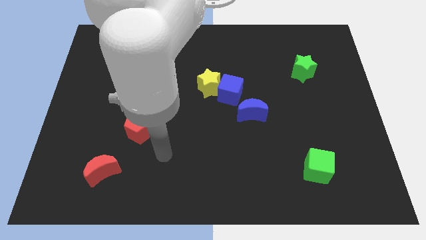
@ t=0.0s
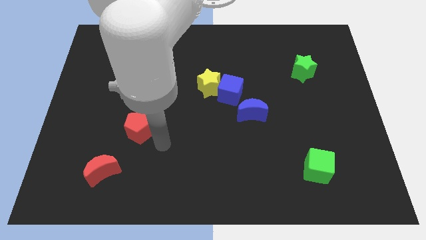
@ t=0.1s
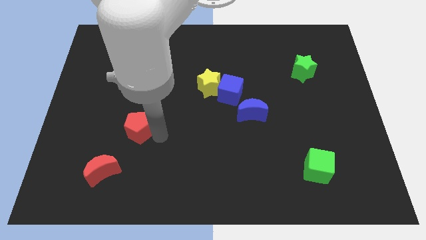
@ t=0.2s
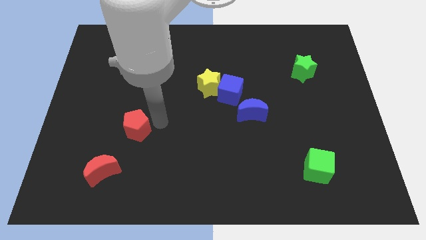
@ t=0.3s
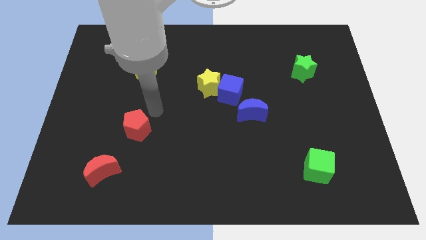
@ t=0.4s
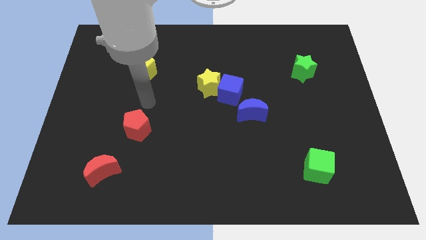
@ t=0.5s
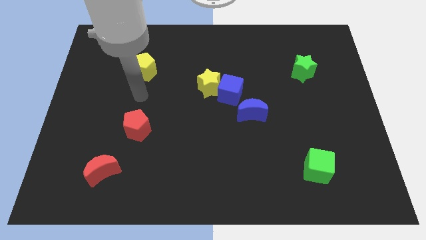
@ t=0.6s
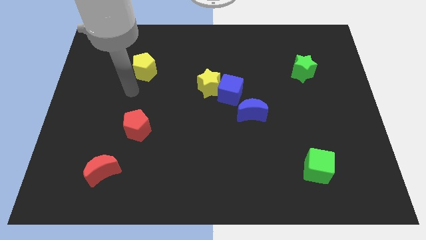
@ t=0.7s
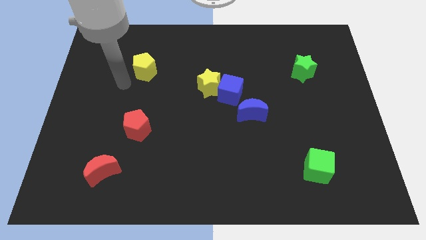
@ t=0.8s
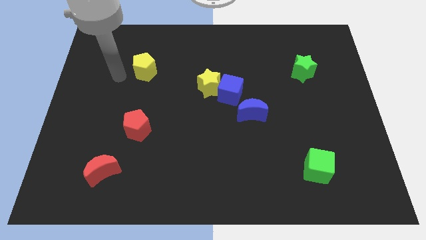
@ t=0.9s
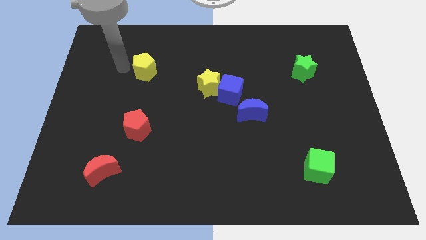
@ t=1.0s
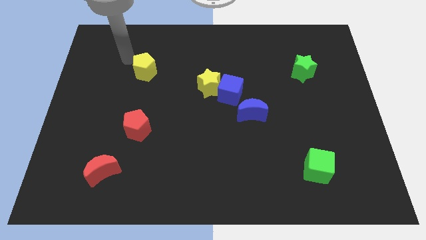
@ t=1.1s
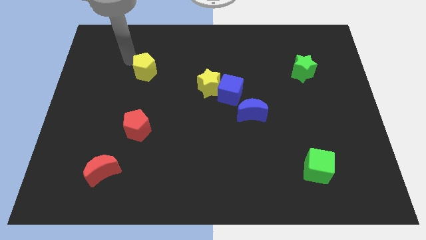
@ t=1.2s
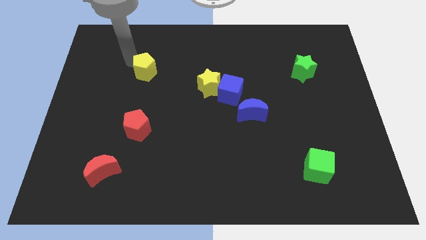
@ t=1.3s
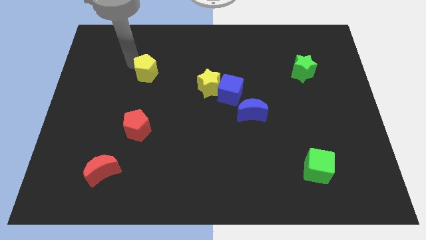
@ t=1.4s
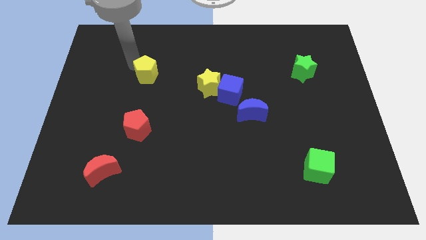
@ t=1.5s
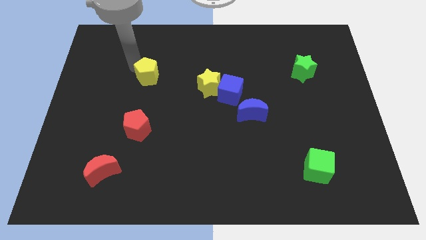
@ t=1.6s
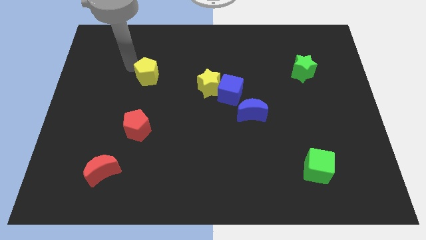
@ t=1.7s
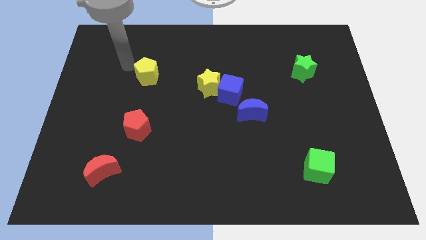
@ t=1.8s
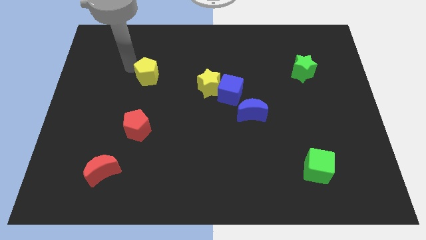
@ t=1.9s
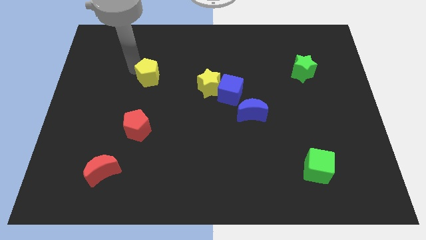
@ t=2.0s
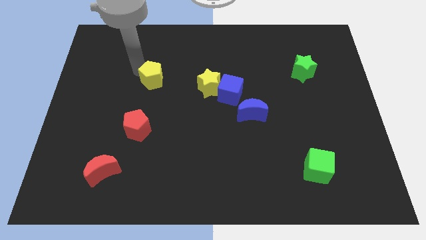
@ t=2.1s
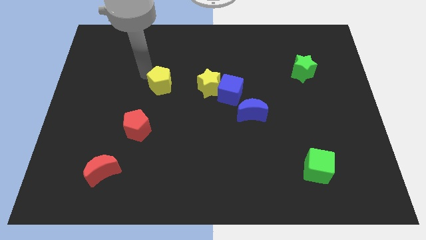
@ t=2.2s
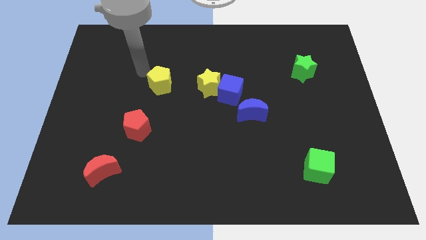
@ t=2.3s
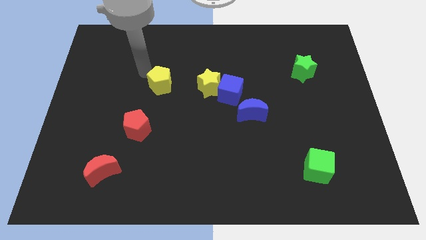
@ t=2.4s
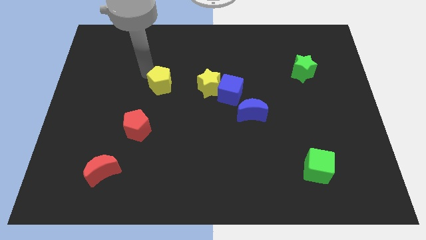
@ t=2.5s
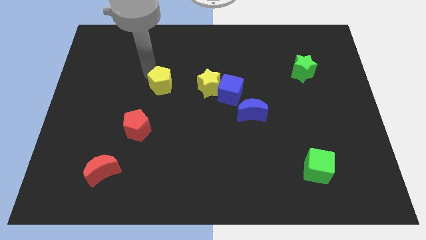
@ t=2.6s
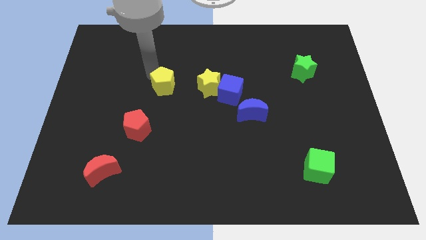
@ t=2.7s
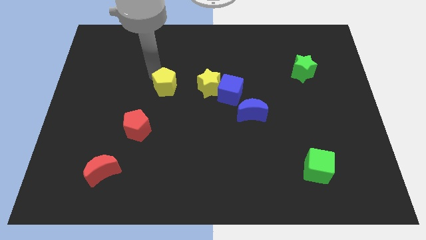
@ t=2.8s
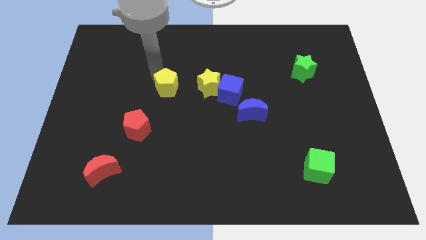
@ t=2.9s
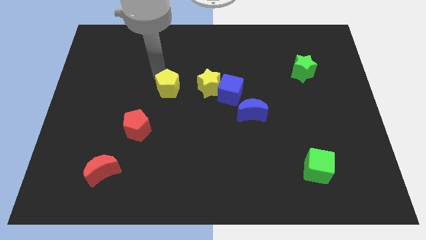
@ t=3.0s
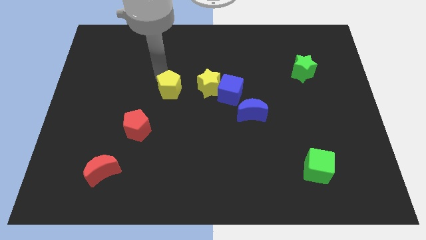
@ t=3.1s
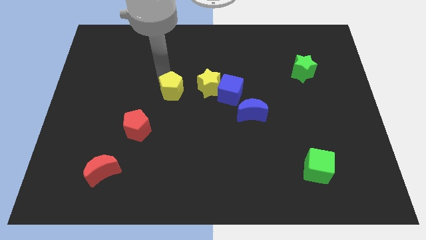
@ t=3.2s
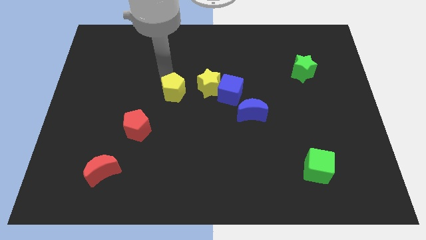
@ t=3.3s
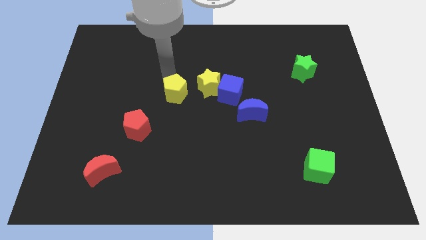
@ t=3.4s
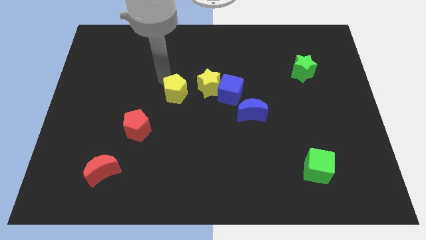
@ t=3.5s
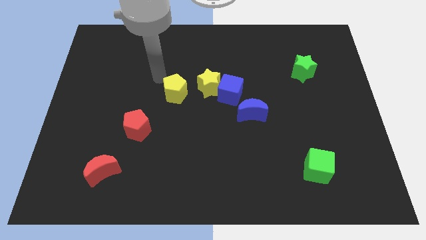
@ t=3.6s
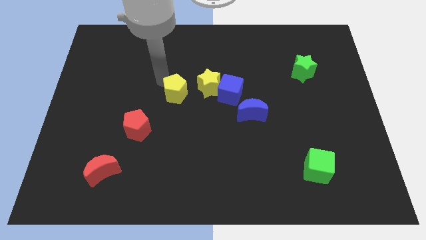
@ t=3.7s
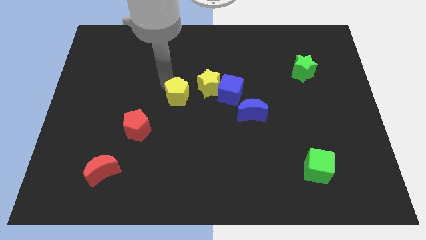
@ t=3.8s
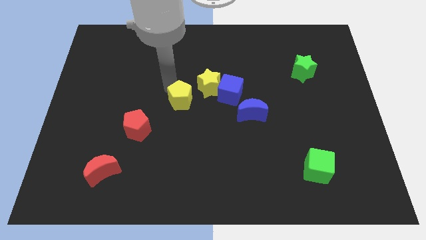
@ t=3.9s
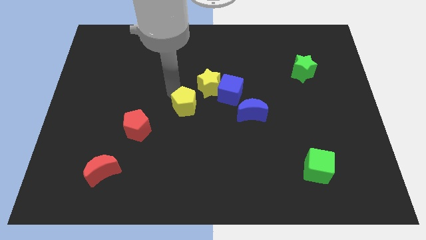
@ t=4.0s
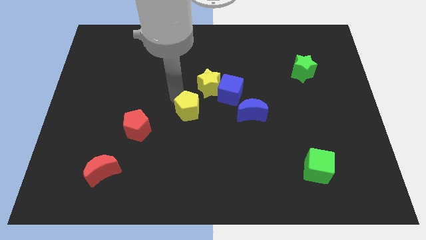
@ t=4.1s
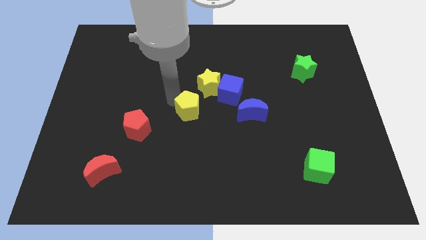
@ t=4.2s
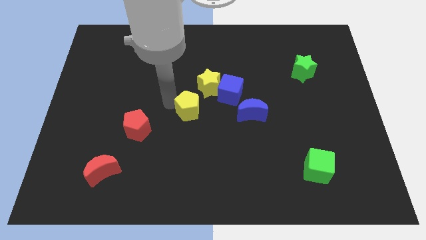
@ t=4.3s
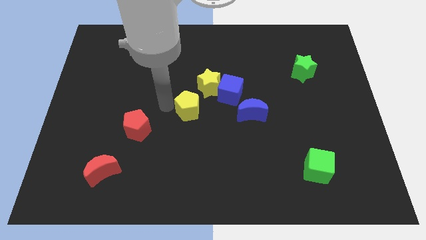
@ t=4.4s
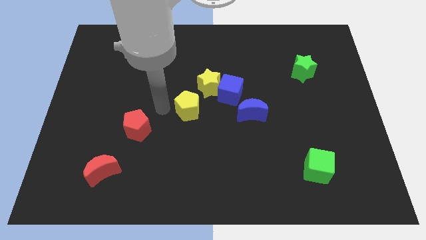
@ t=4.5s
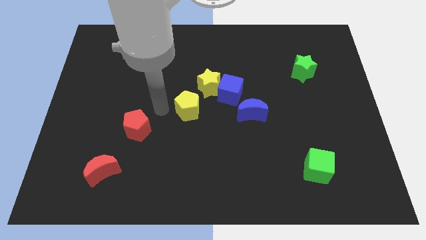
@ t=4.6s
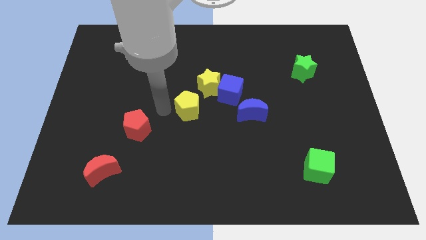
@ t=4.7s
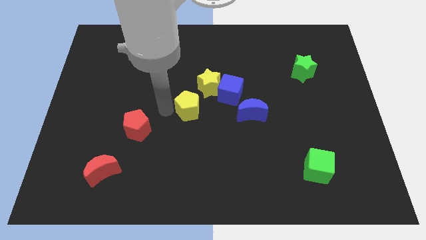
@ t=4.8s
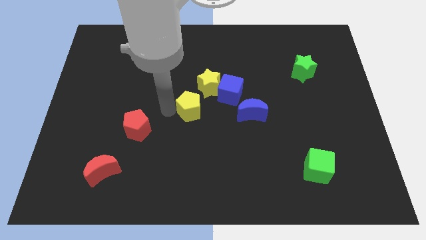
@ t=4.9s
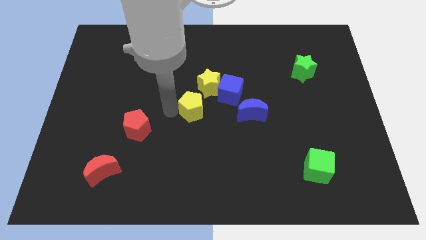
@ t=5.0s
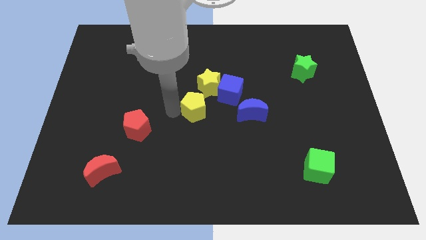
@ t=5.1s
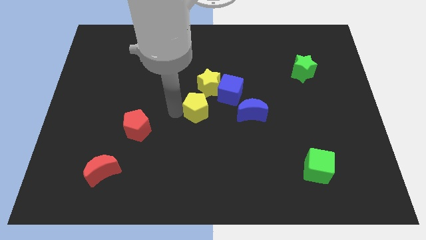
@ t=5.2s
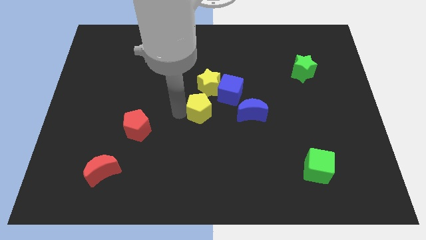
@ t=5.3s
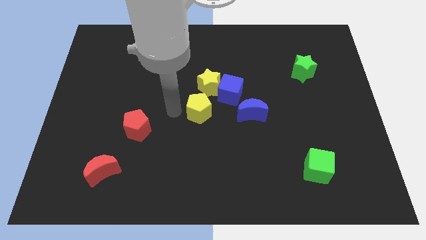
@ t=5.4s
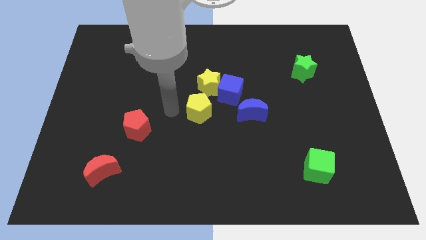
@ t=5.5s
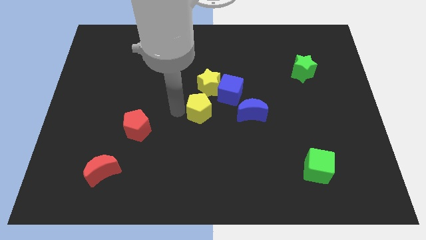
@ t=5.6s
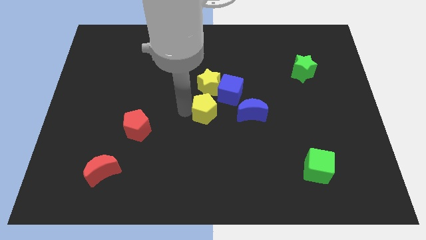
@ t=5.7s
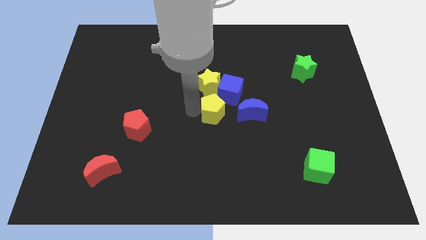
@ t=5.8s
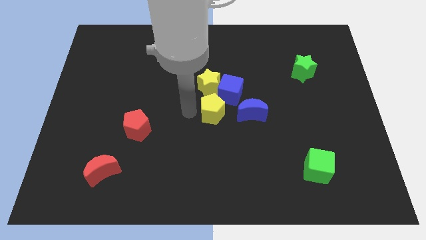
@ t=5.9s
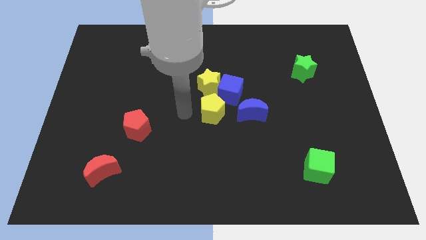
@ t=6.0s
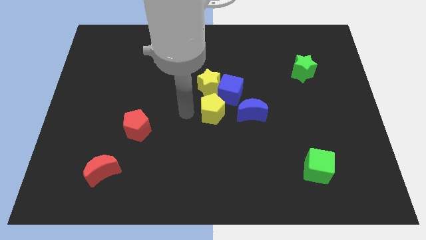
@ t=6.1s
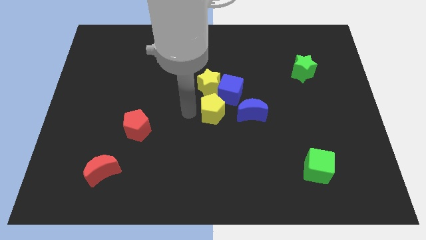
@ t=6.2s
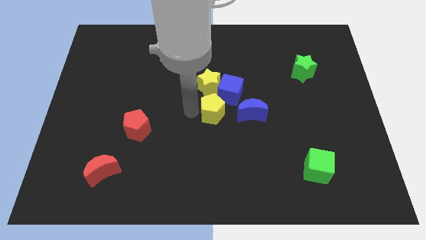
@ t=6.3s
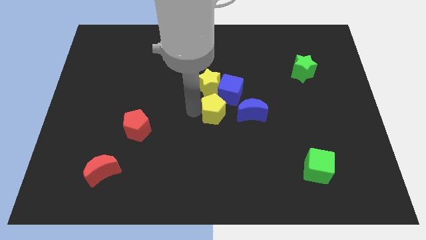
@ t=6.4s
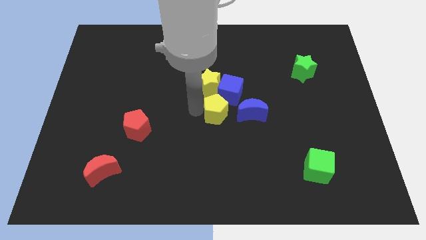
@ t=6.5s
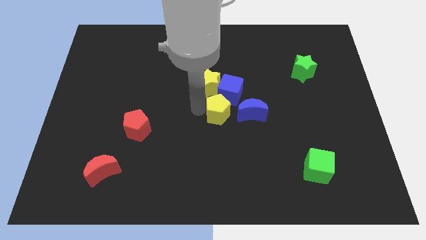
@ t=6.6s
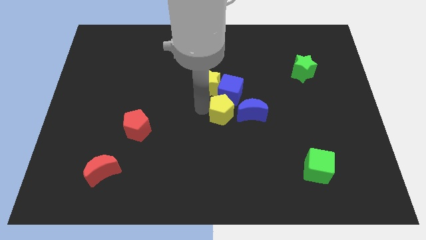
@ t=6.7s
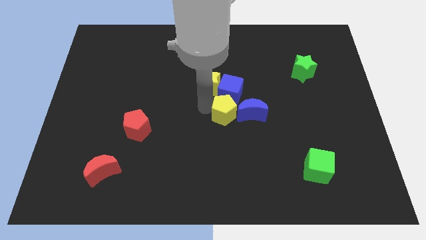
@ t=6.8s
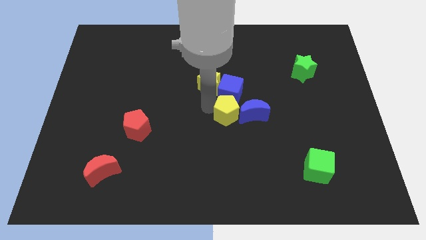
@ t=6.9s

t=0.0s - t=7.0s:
slide the yellow pentagon towards the blue moon
